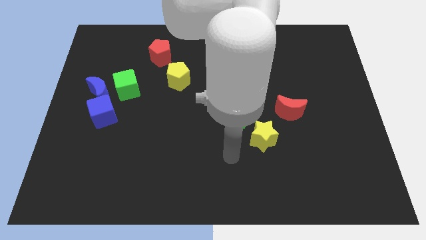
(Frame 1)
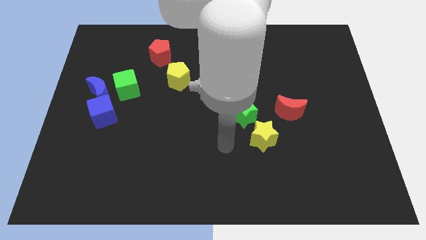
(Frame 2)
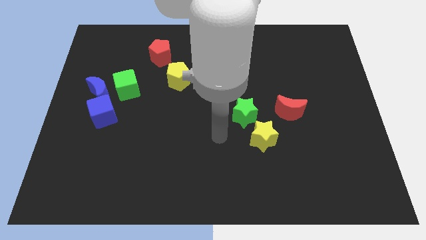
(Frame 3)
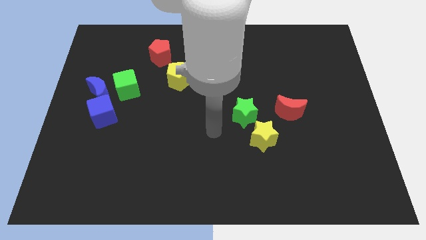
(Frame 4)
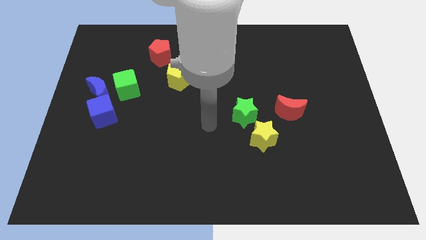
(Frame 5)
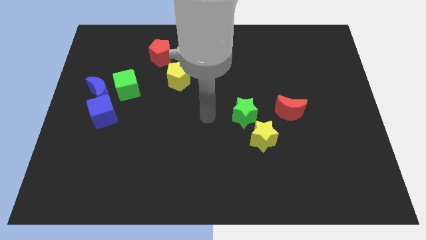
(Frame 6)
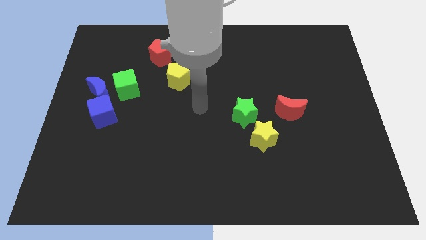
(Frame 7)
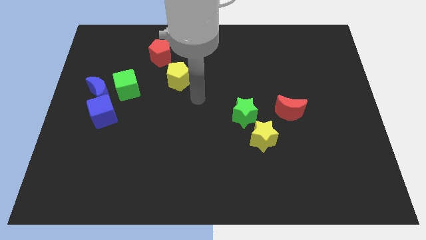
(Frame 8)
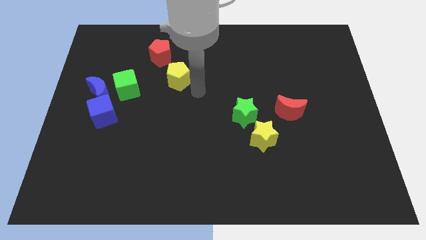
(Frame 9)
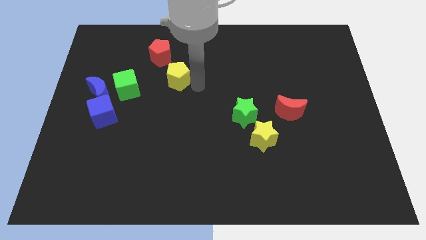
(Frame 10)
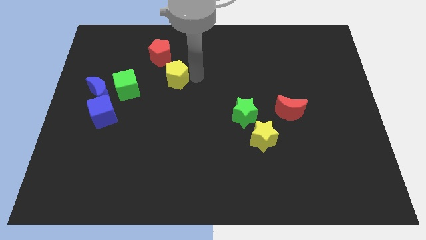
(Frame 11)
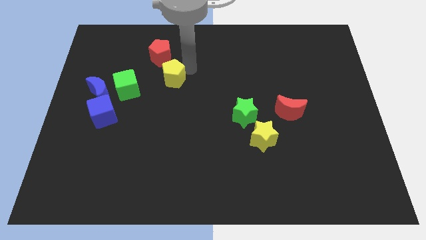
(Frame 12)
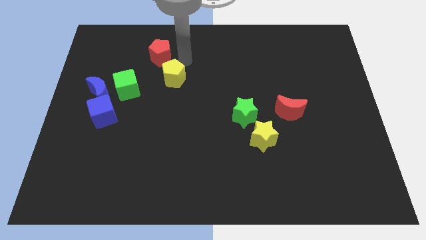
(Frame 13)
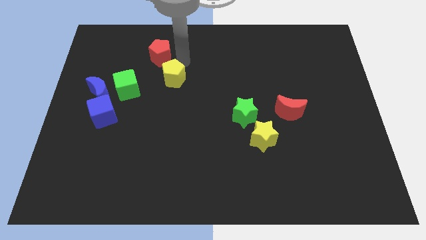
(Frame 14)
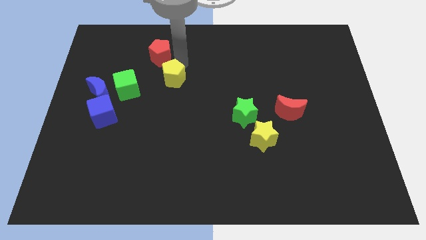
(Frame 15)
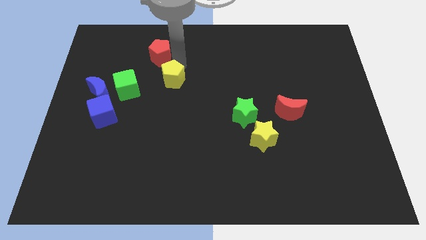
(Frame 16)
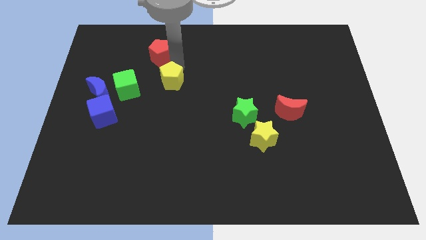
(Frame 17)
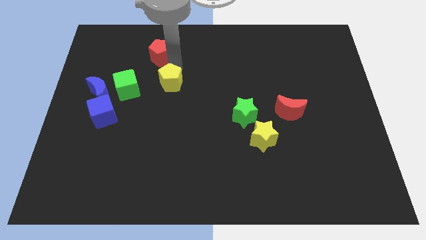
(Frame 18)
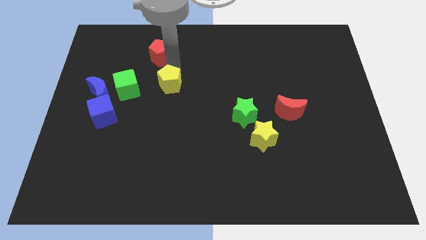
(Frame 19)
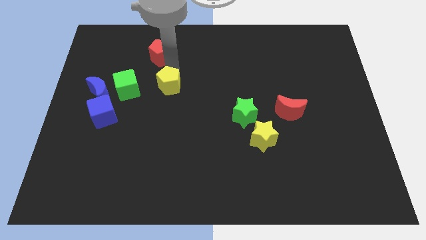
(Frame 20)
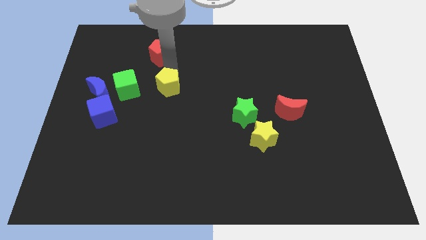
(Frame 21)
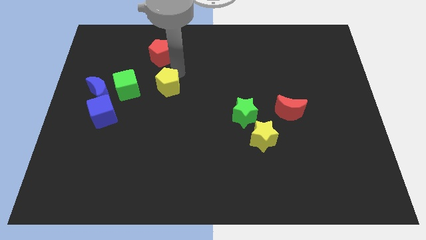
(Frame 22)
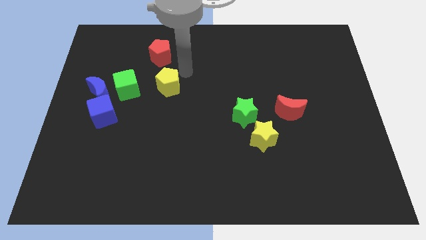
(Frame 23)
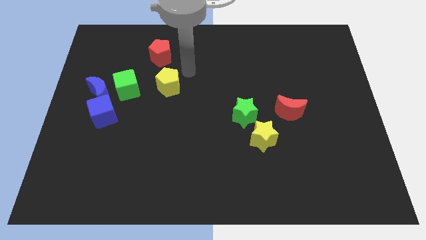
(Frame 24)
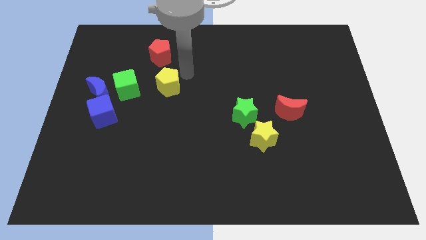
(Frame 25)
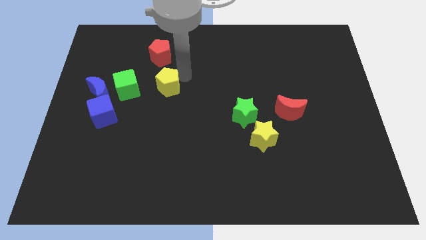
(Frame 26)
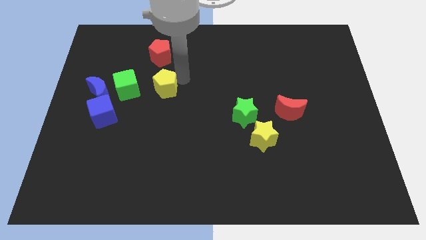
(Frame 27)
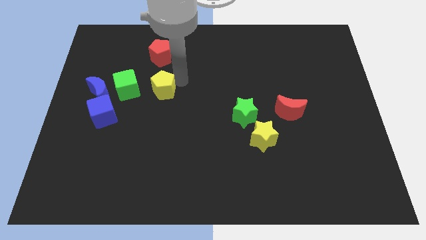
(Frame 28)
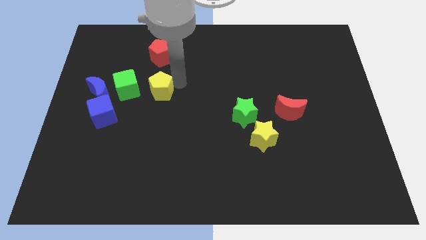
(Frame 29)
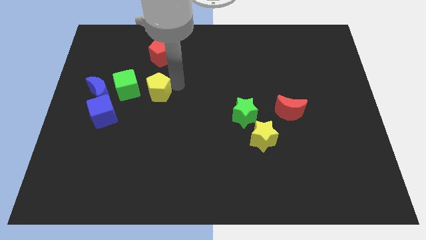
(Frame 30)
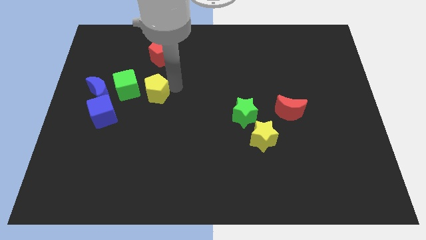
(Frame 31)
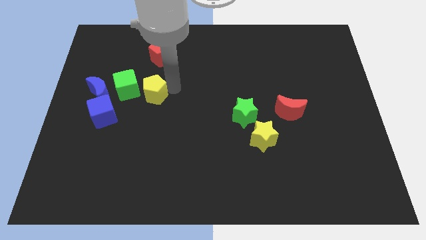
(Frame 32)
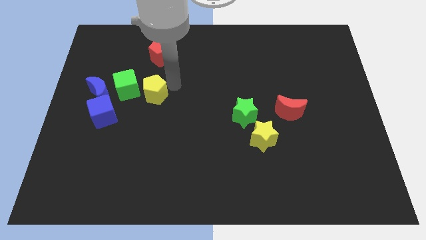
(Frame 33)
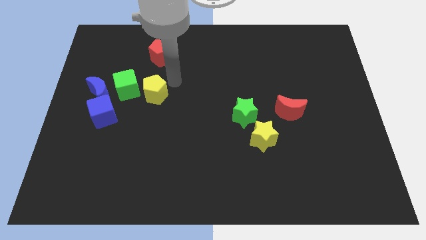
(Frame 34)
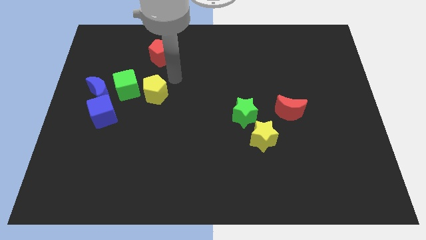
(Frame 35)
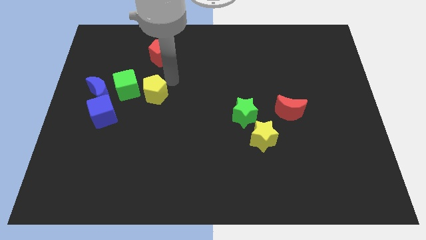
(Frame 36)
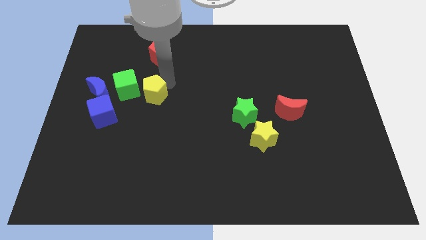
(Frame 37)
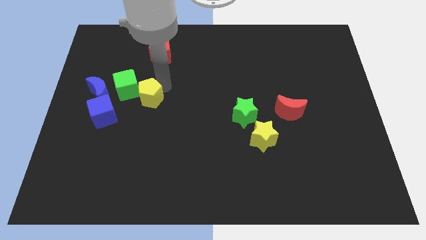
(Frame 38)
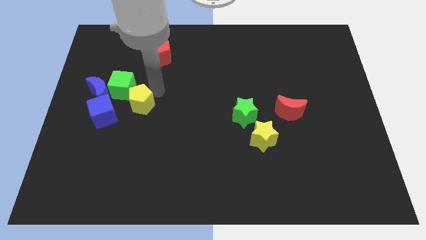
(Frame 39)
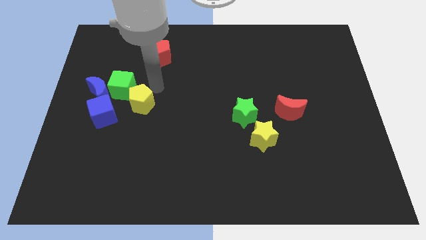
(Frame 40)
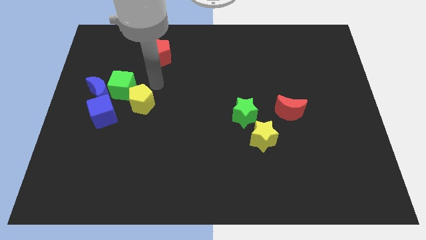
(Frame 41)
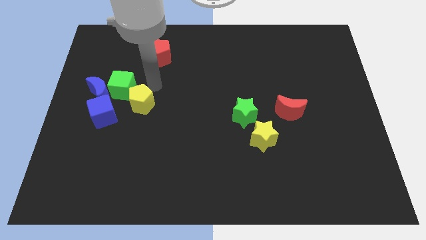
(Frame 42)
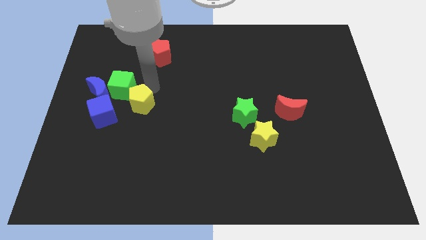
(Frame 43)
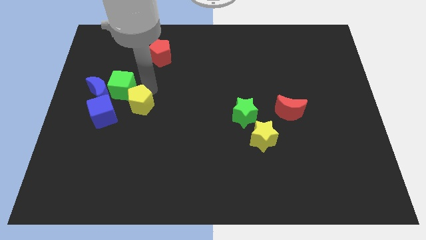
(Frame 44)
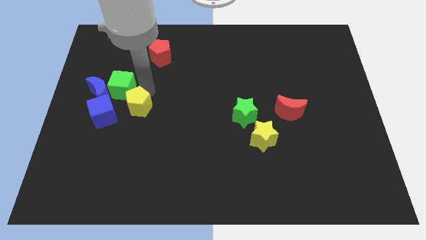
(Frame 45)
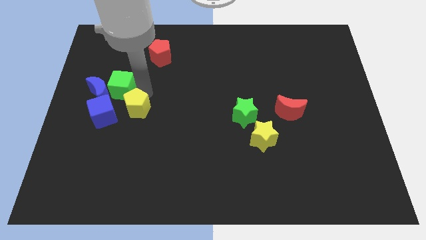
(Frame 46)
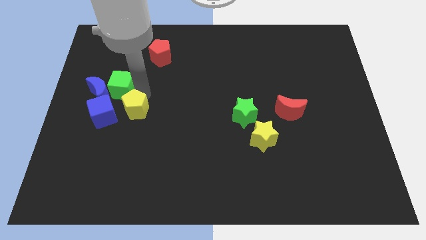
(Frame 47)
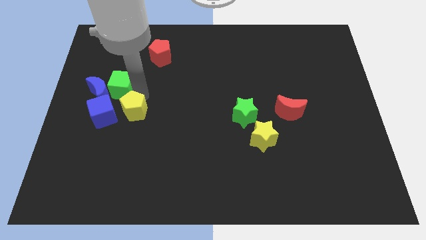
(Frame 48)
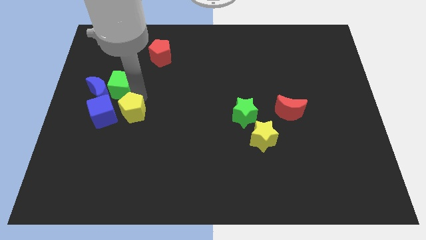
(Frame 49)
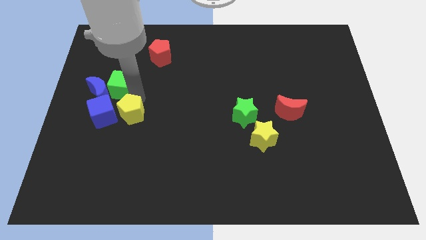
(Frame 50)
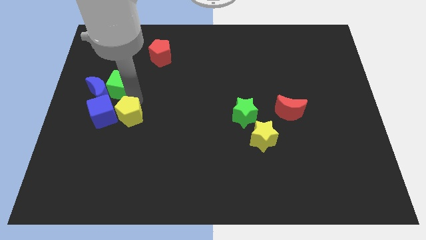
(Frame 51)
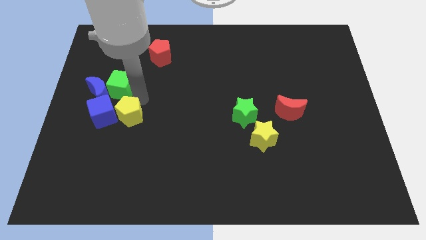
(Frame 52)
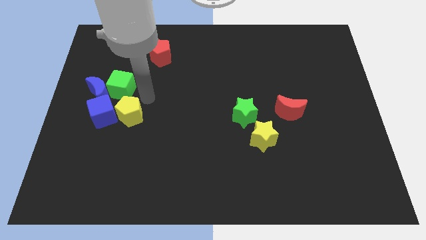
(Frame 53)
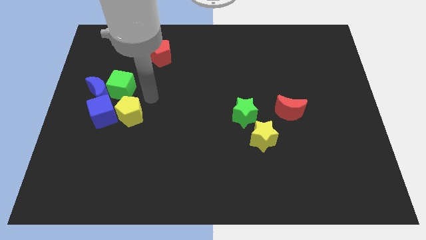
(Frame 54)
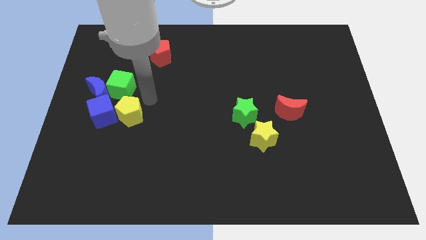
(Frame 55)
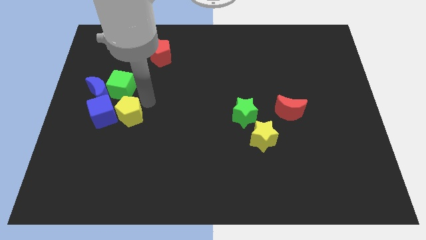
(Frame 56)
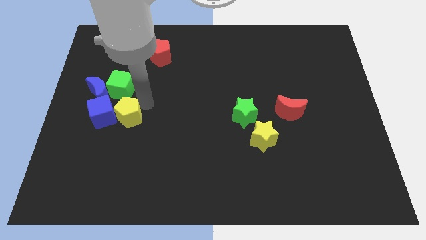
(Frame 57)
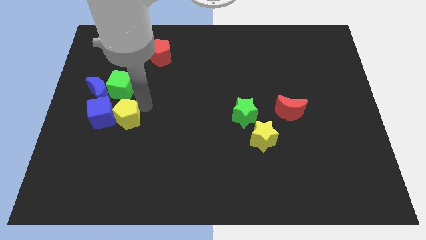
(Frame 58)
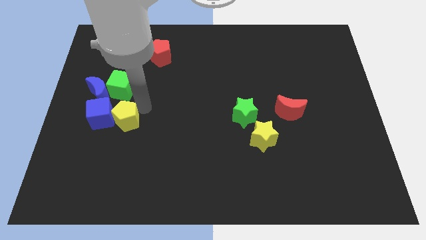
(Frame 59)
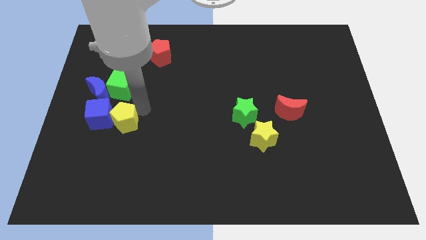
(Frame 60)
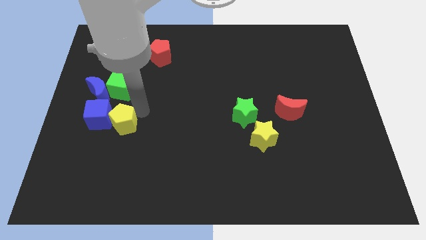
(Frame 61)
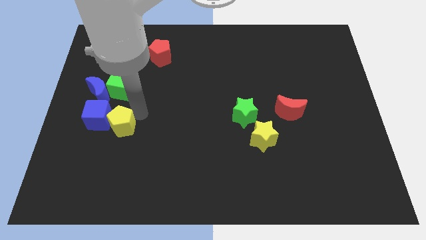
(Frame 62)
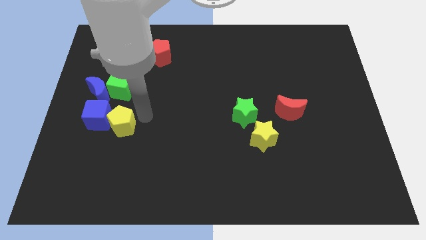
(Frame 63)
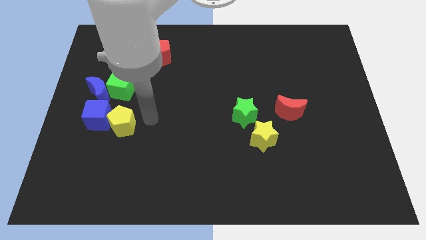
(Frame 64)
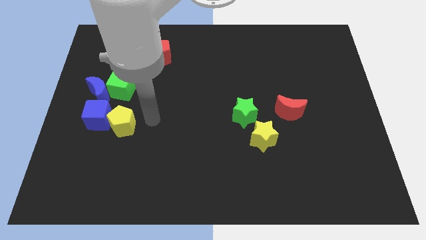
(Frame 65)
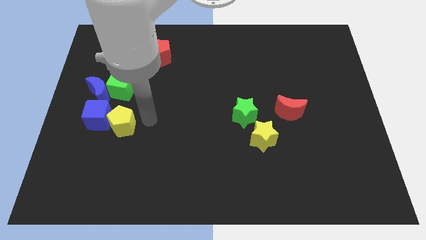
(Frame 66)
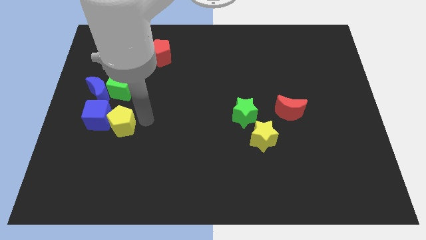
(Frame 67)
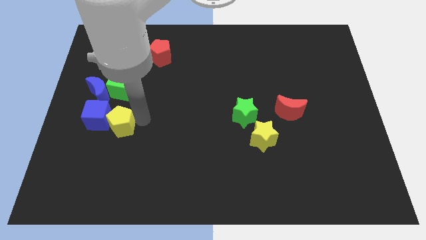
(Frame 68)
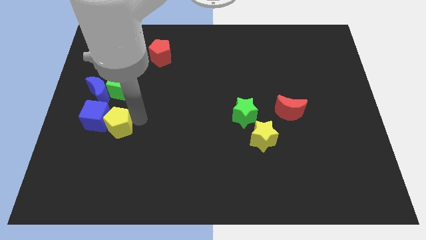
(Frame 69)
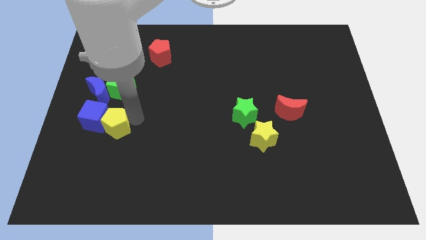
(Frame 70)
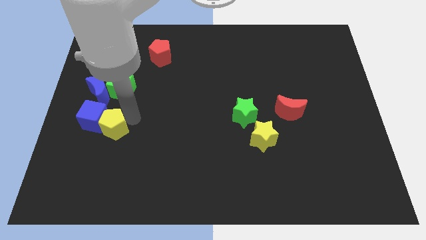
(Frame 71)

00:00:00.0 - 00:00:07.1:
move the yellow pentagon to the bottom of the blue moon
